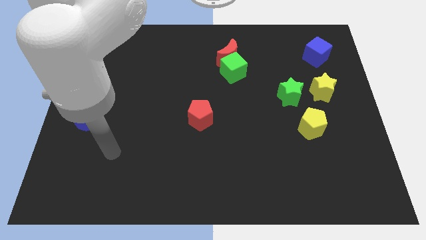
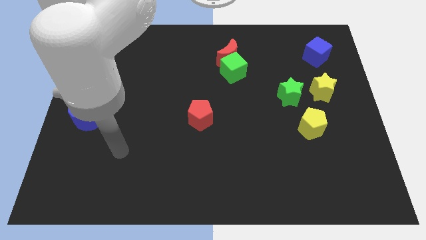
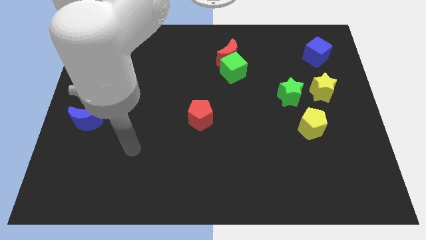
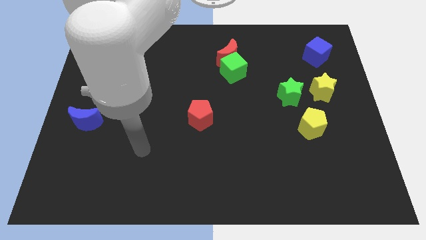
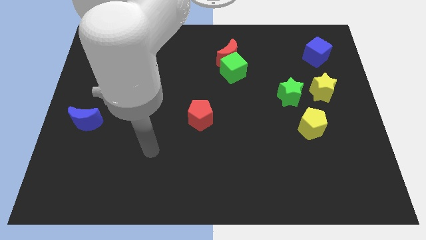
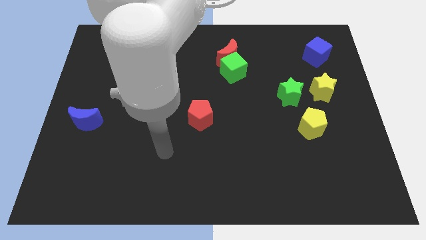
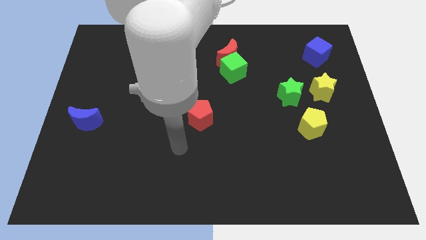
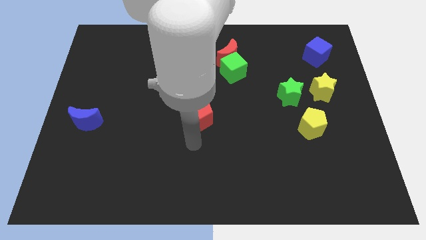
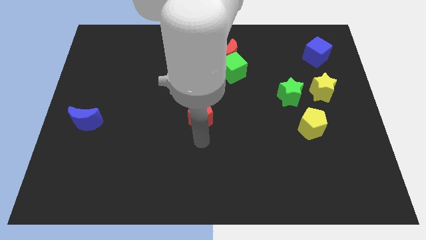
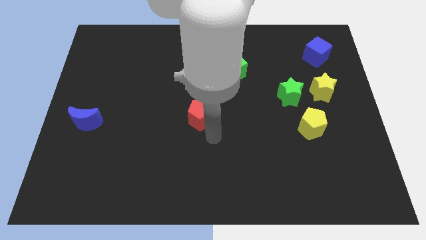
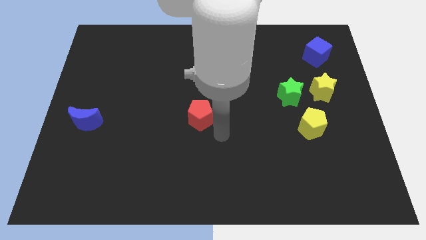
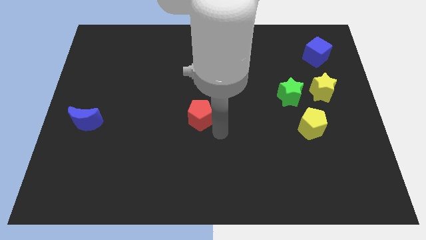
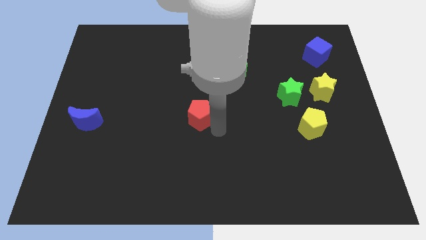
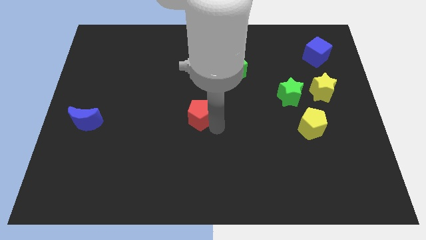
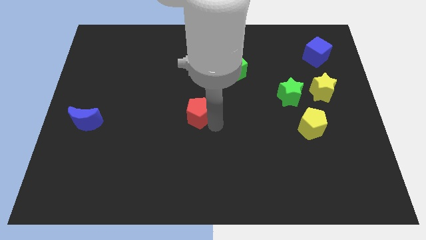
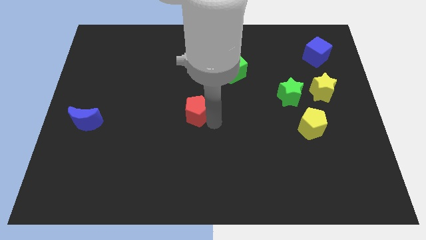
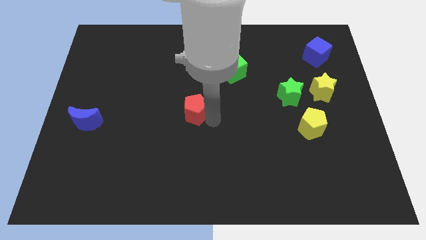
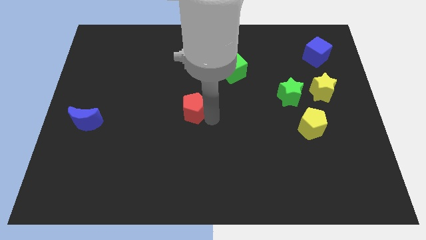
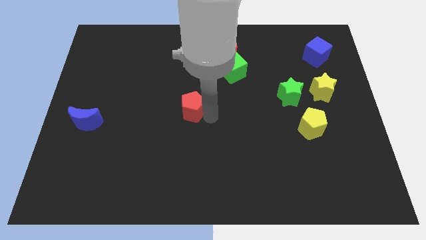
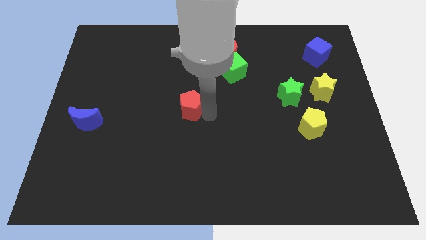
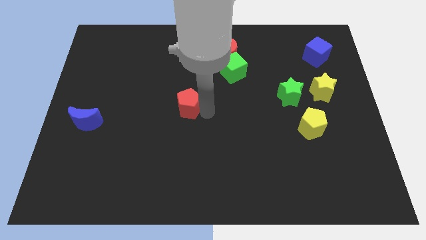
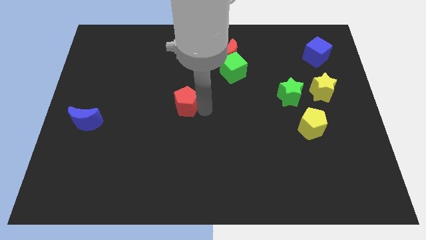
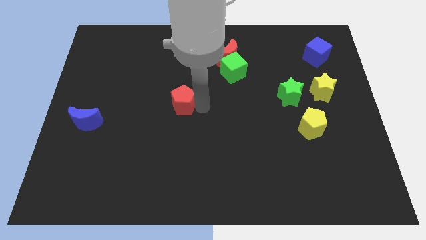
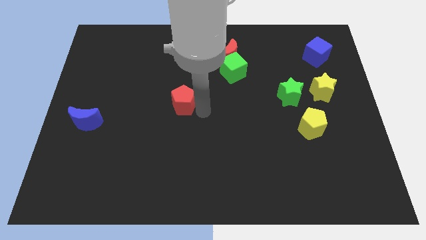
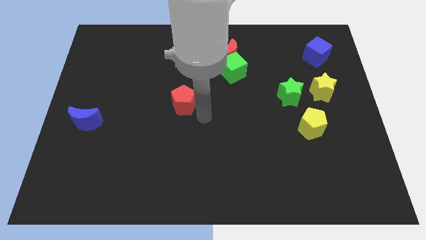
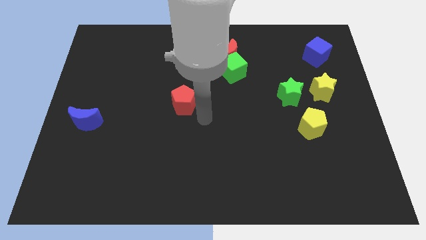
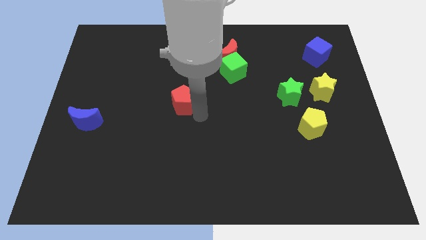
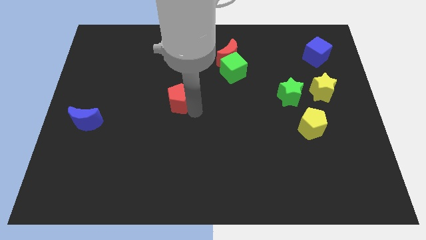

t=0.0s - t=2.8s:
slide the red pentagon up and then to the left somewhat

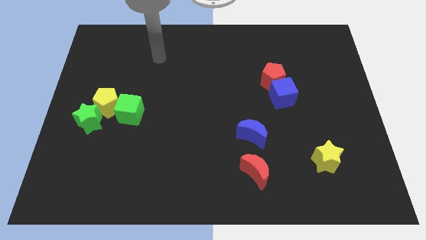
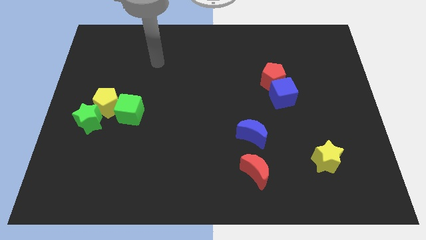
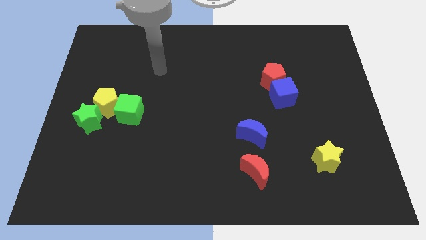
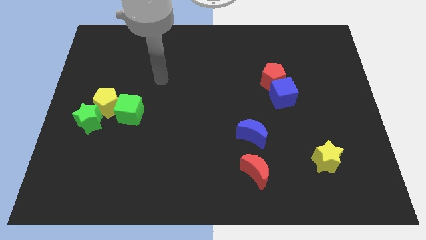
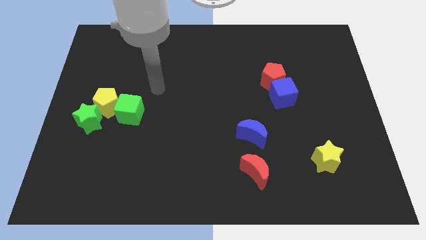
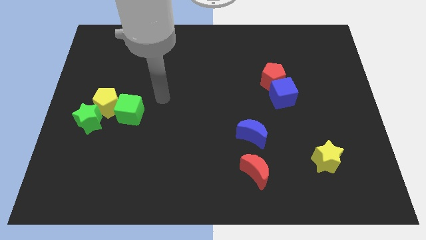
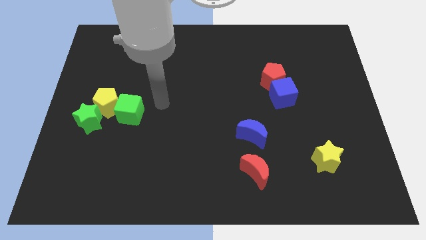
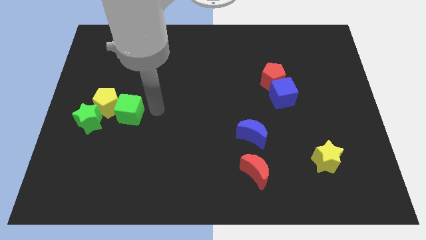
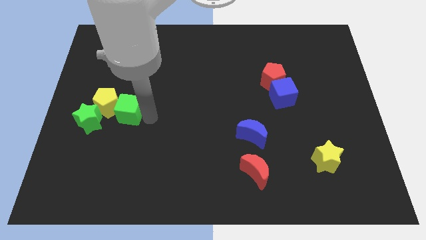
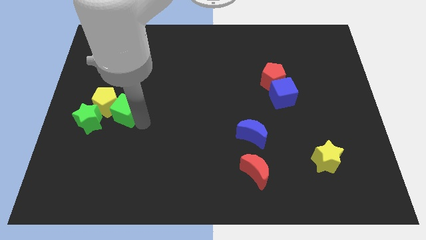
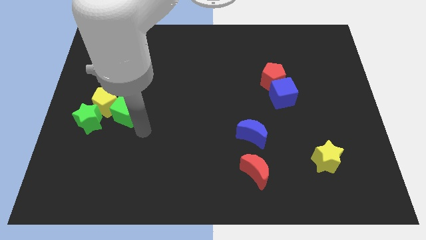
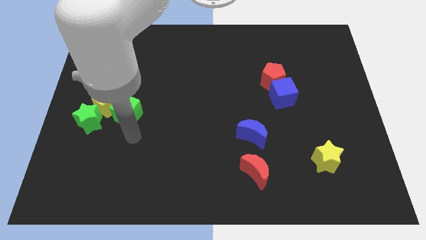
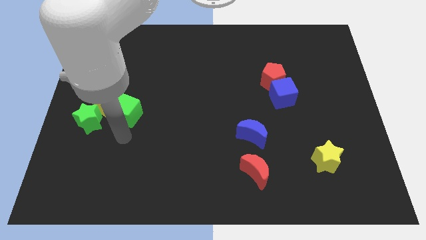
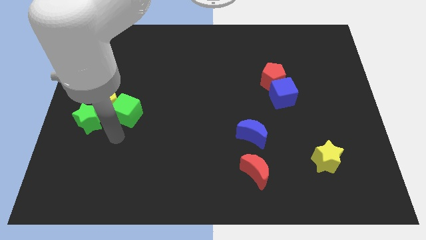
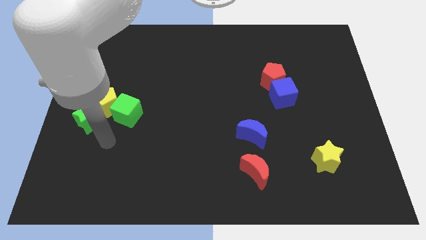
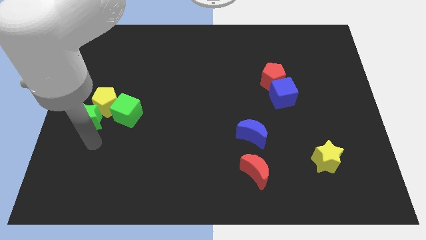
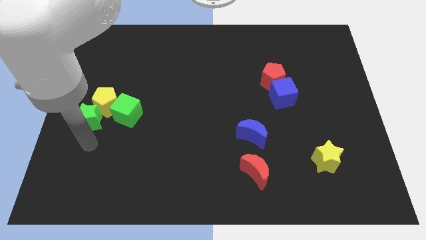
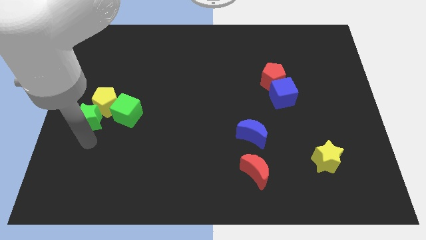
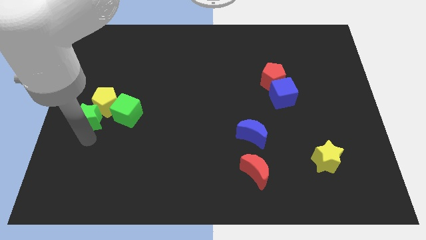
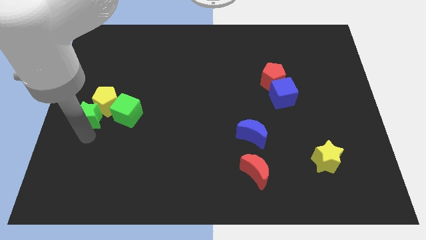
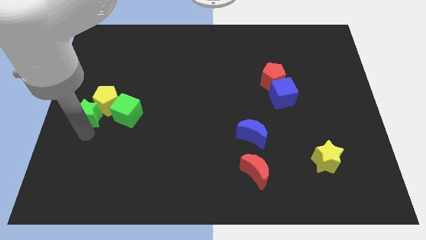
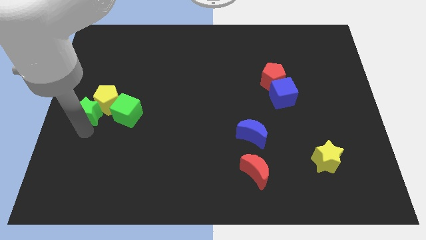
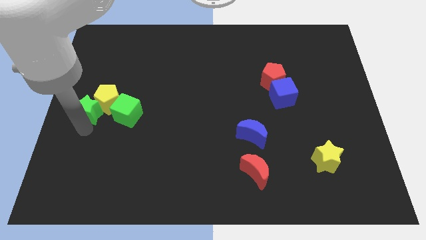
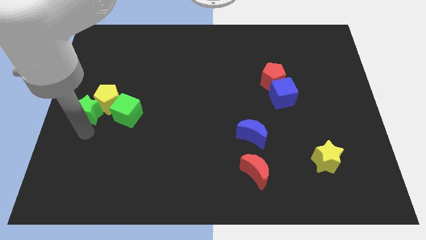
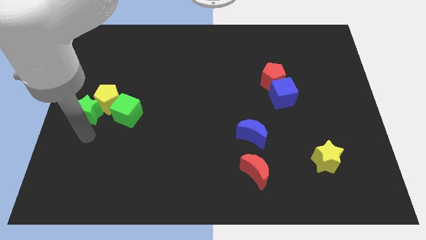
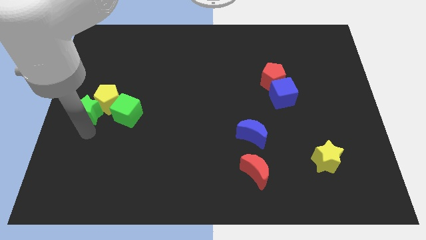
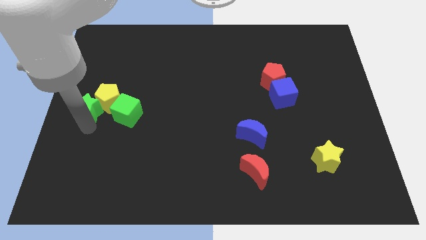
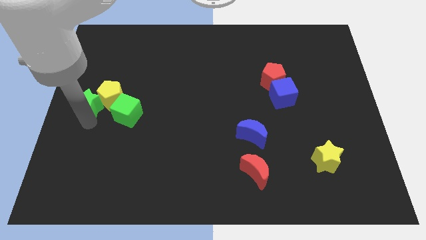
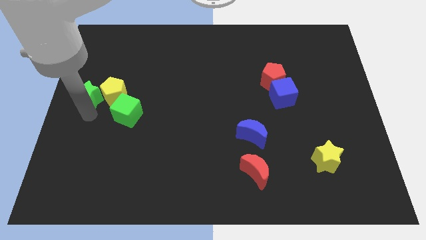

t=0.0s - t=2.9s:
slightly move the green star upwards

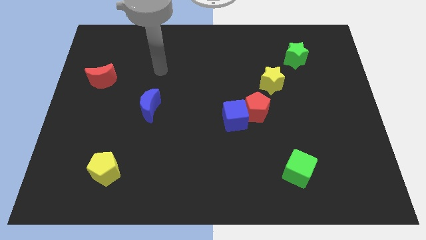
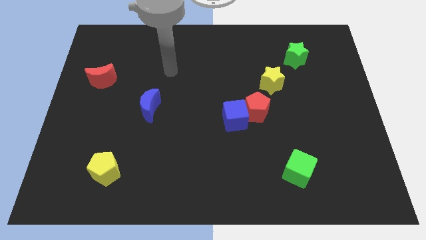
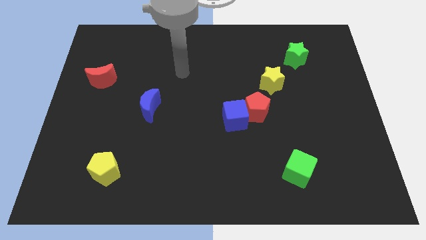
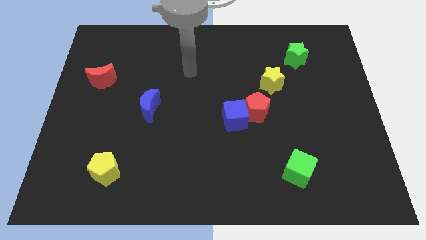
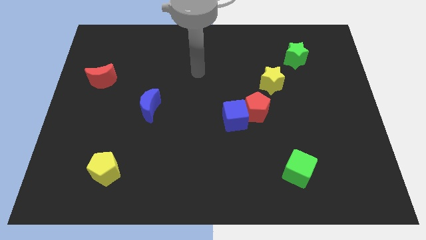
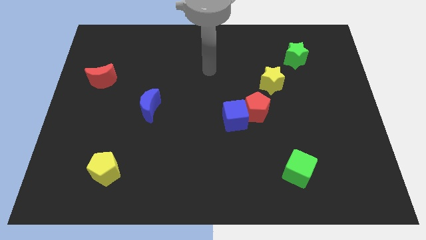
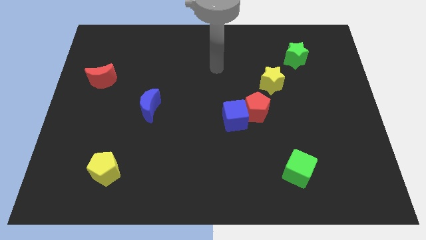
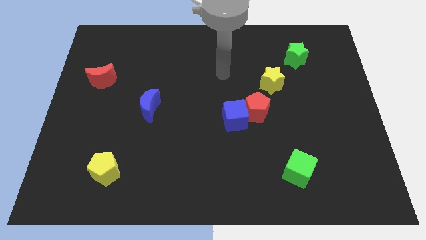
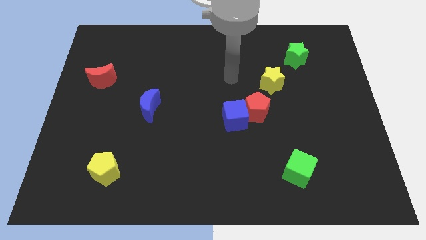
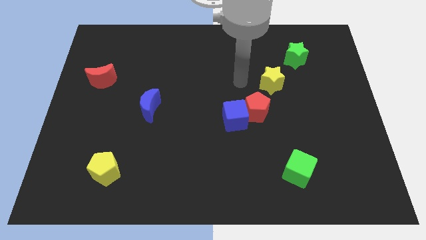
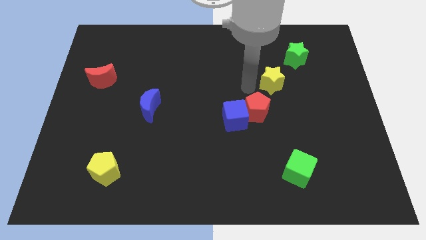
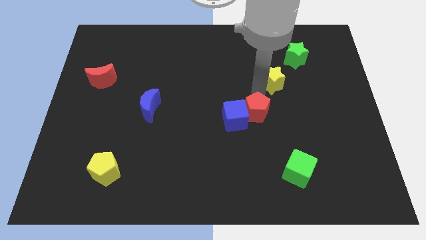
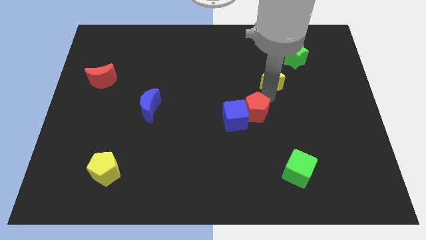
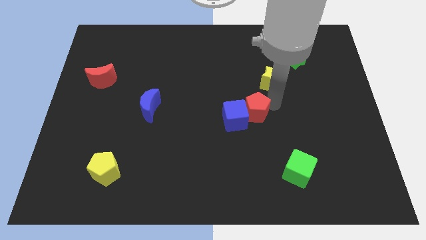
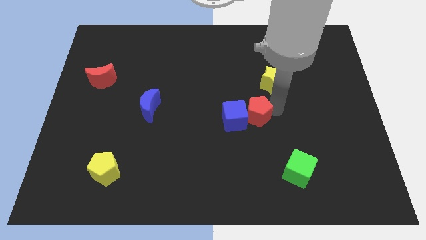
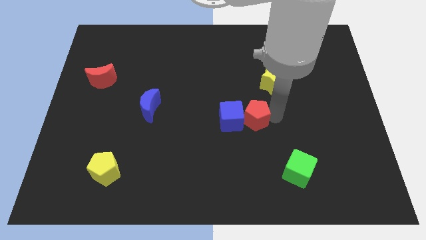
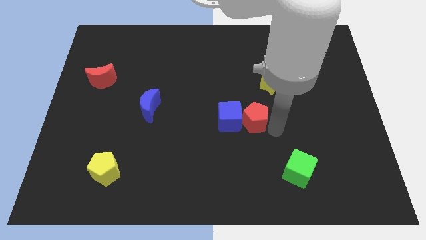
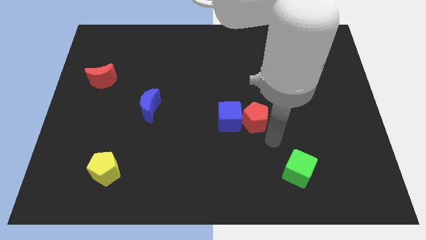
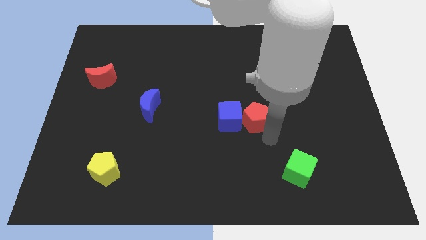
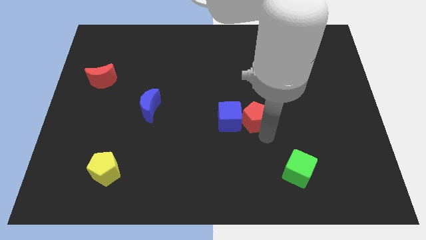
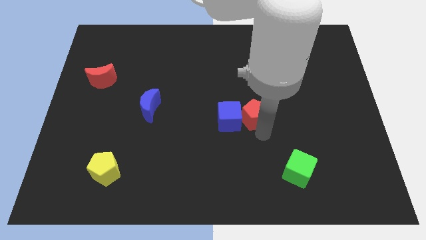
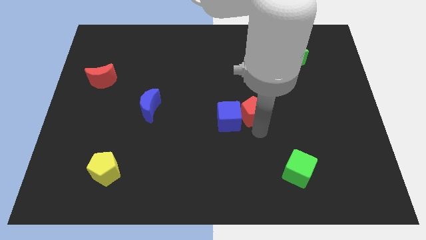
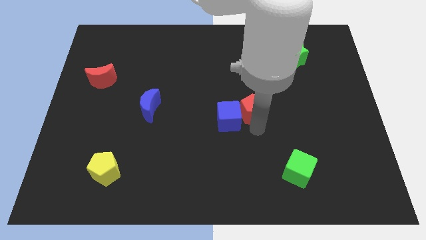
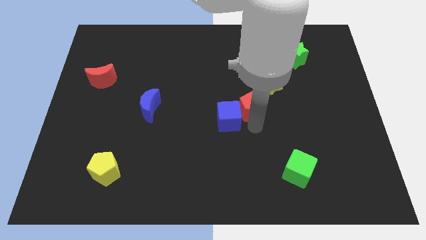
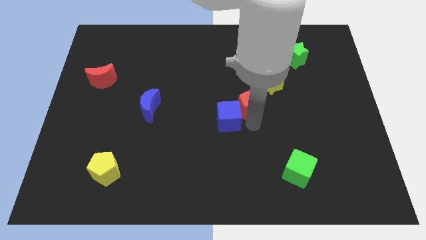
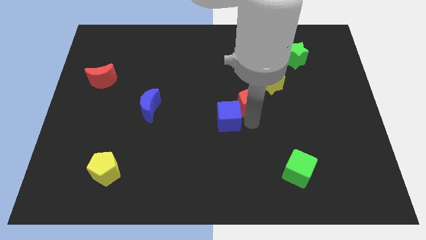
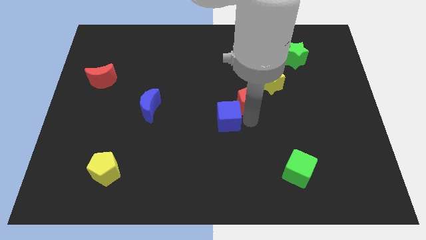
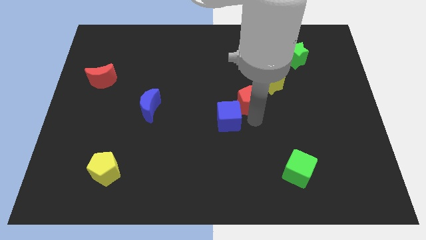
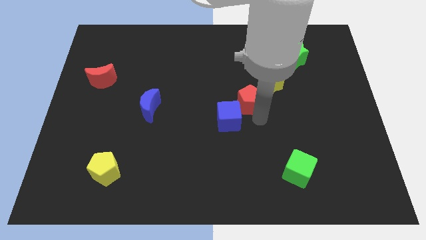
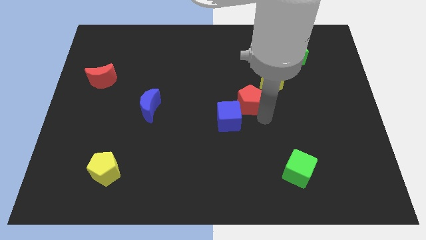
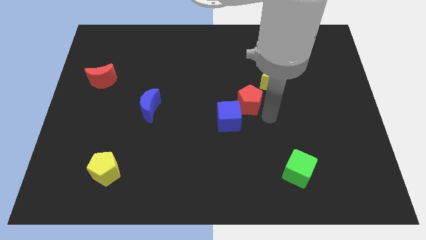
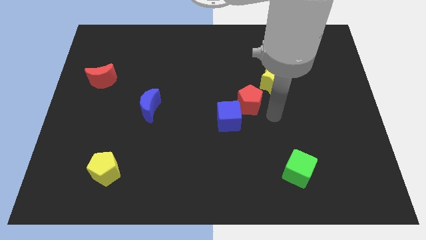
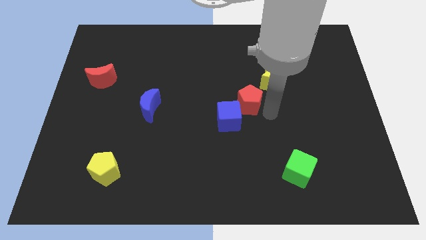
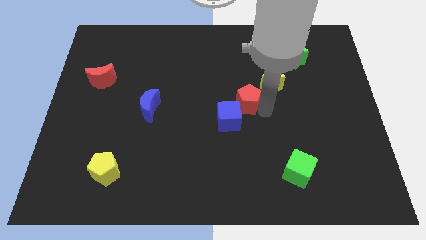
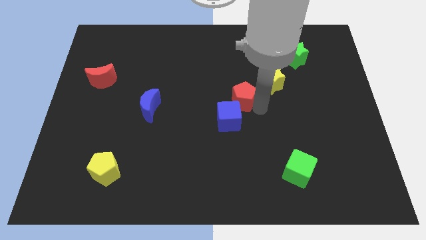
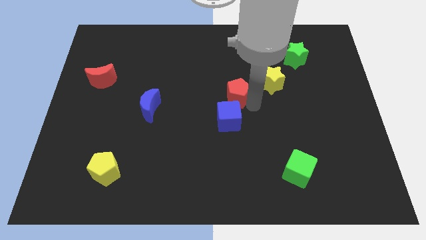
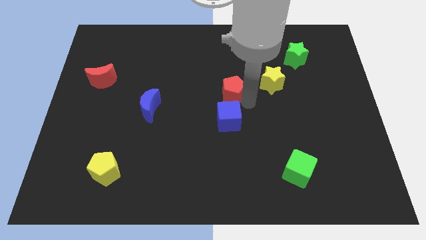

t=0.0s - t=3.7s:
push the red pentagon diagonally upwards and left slightly
